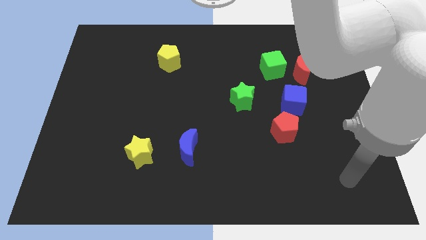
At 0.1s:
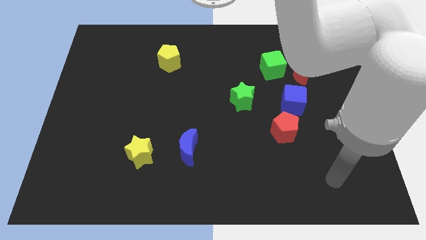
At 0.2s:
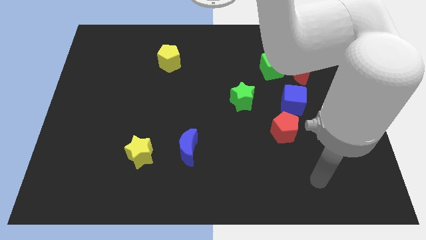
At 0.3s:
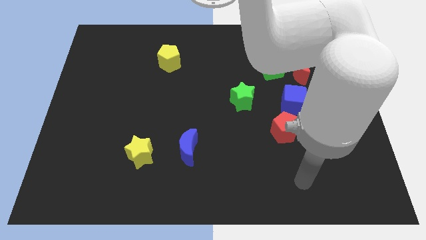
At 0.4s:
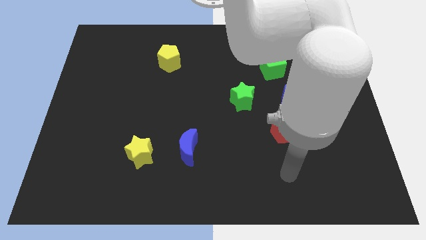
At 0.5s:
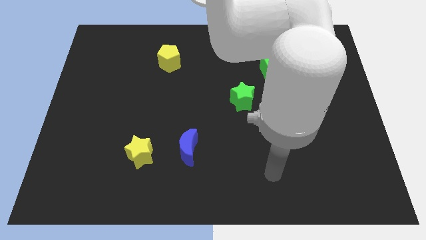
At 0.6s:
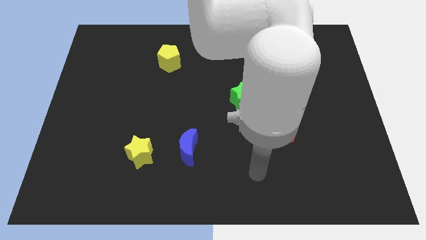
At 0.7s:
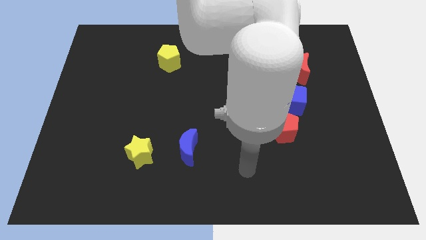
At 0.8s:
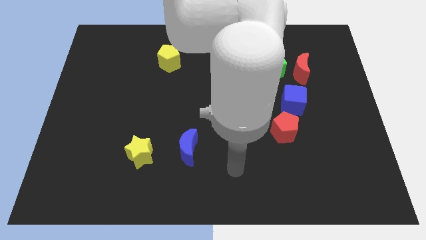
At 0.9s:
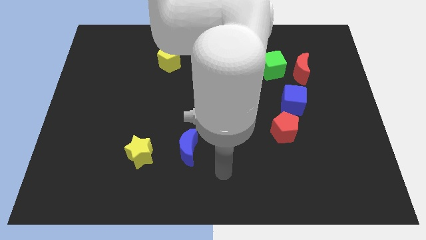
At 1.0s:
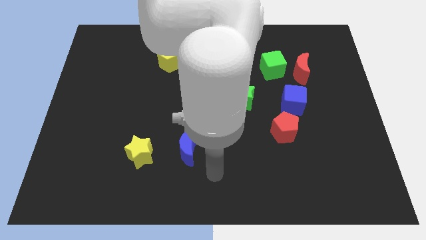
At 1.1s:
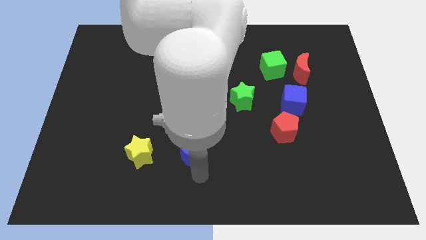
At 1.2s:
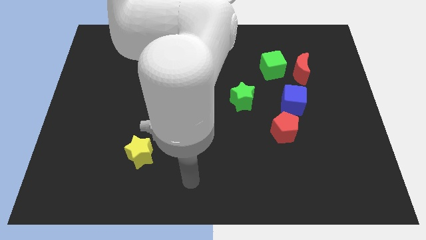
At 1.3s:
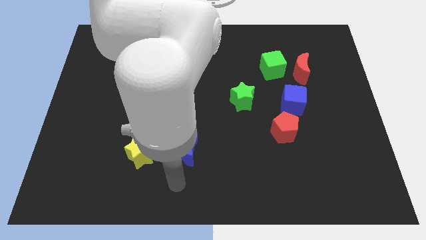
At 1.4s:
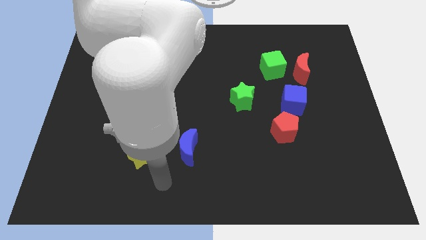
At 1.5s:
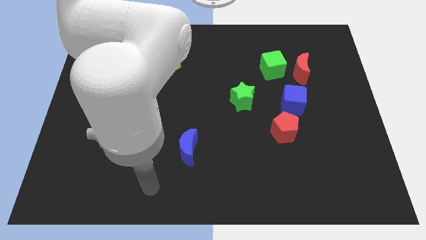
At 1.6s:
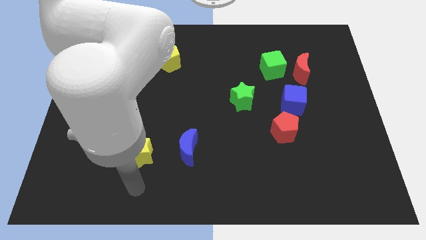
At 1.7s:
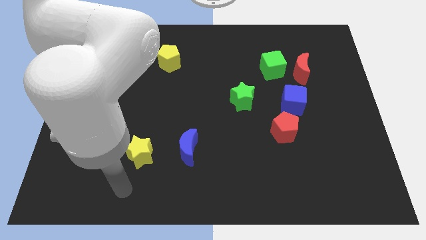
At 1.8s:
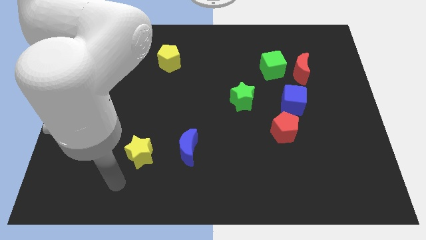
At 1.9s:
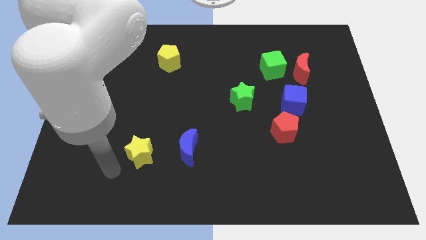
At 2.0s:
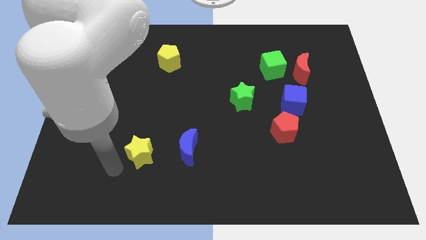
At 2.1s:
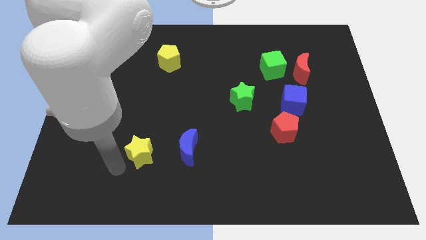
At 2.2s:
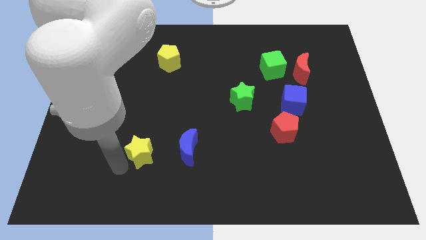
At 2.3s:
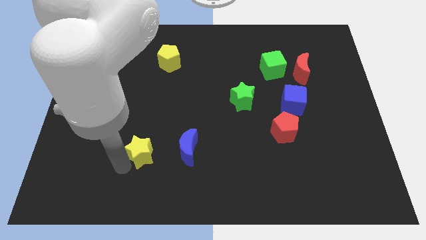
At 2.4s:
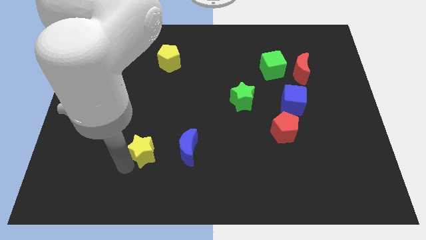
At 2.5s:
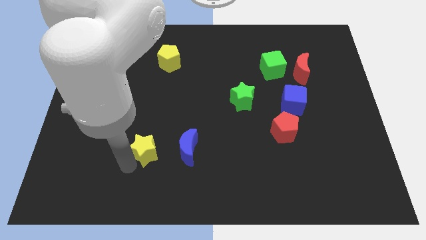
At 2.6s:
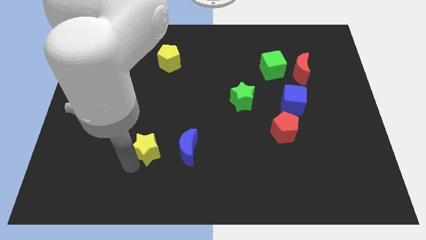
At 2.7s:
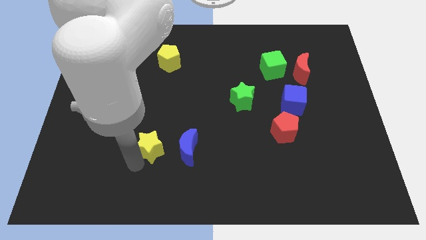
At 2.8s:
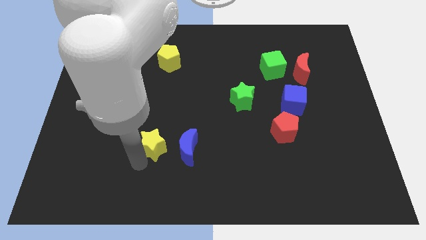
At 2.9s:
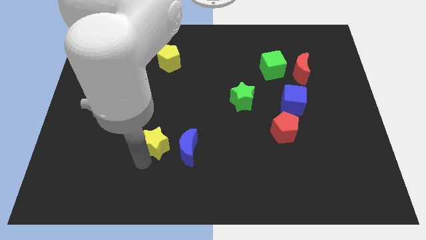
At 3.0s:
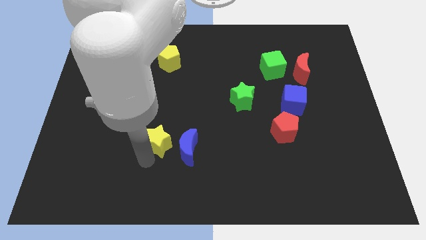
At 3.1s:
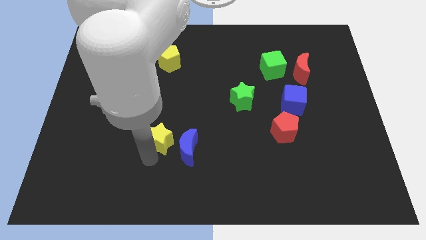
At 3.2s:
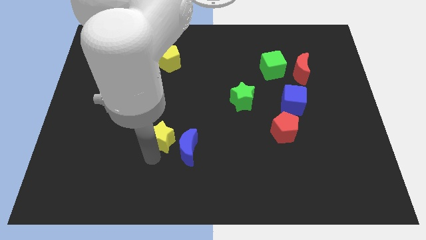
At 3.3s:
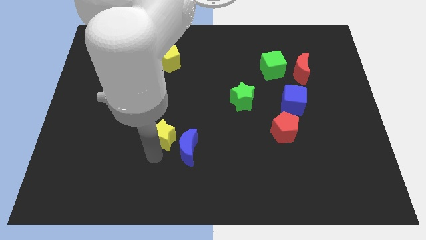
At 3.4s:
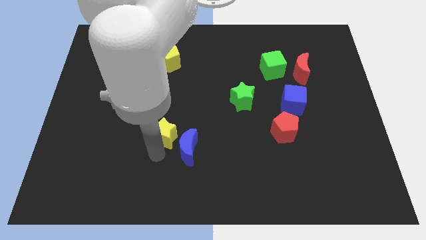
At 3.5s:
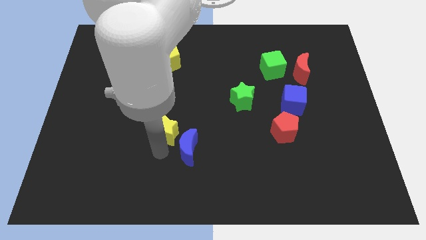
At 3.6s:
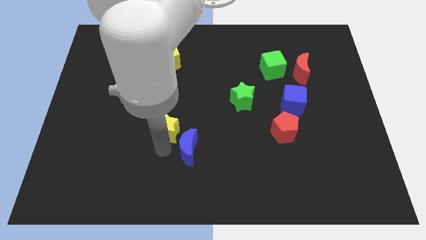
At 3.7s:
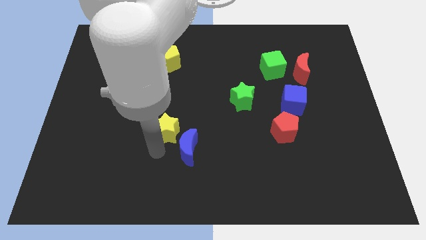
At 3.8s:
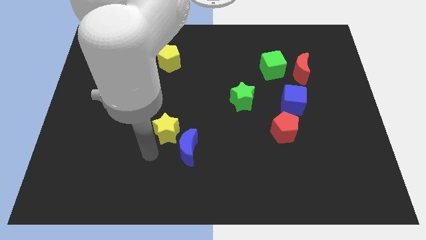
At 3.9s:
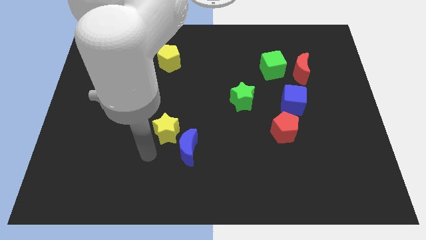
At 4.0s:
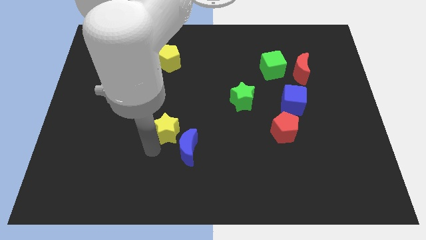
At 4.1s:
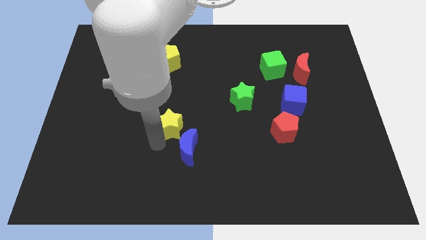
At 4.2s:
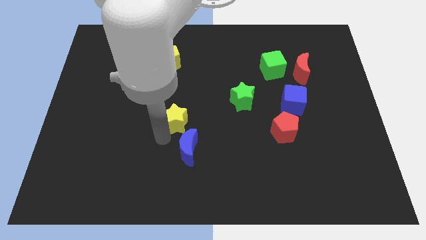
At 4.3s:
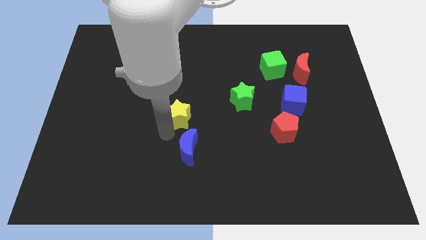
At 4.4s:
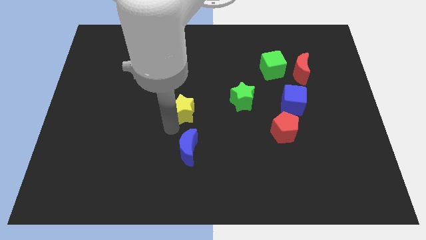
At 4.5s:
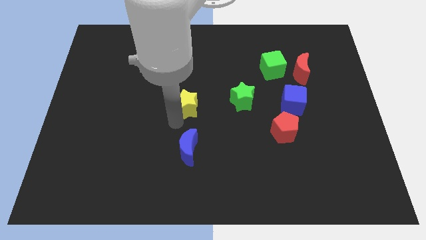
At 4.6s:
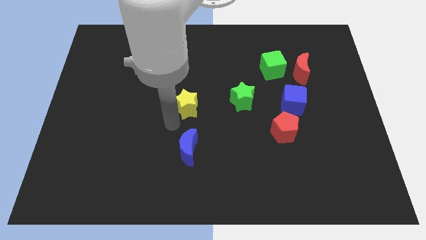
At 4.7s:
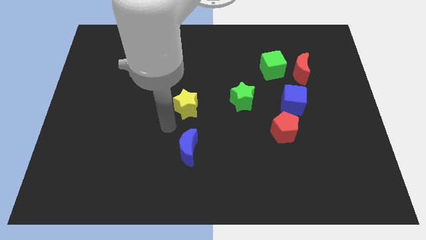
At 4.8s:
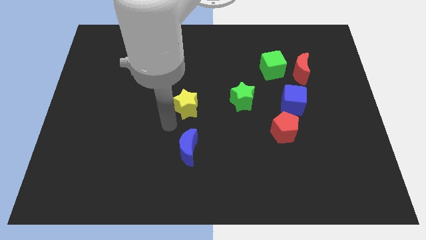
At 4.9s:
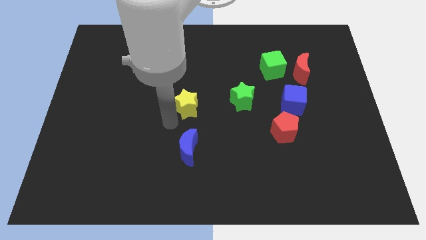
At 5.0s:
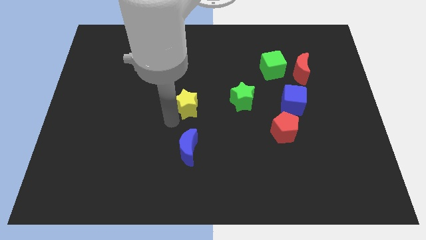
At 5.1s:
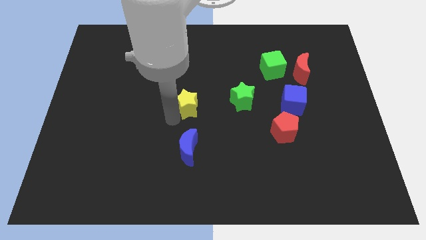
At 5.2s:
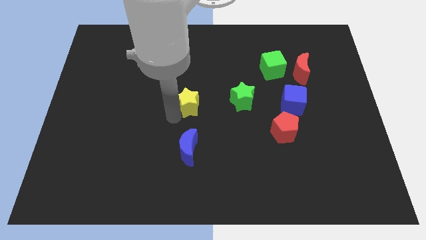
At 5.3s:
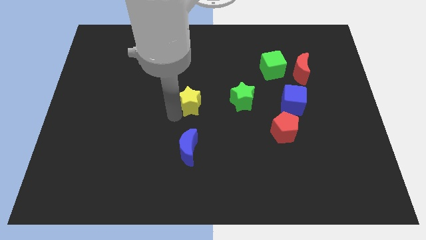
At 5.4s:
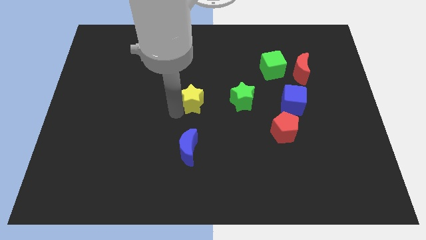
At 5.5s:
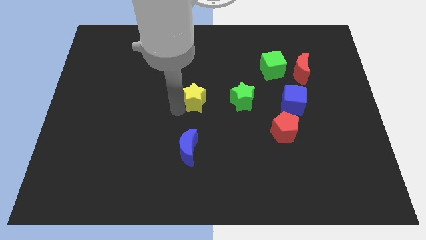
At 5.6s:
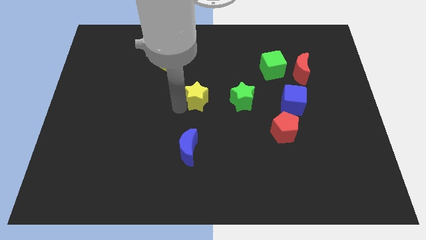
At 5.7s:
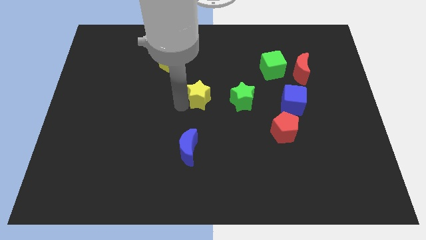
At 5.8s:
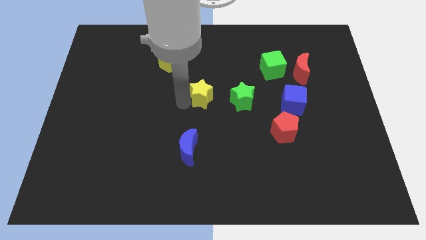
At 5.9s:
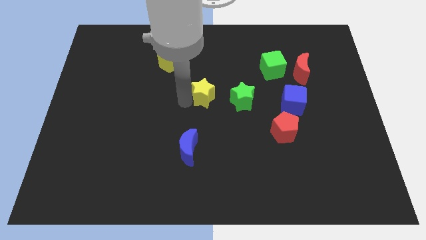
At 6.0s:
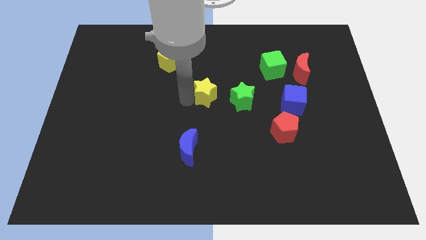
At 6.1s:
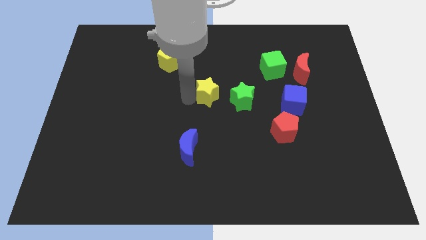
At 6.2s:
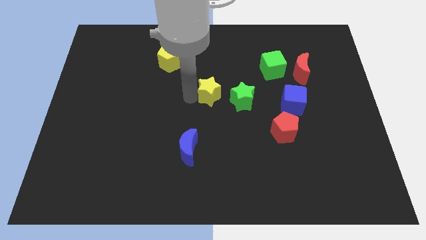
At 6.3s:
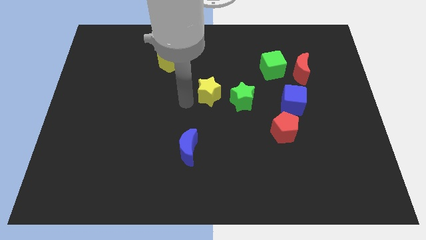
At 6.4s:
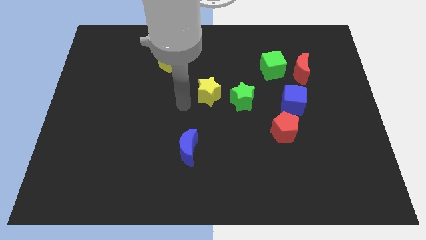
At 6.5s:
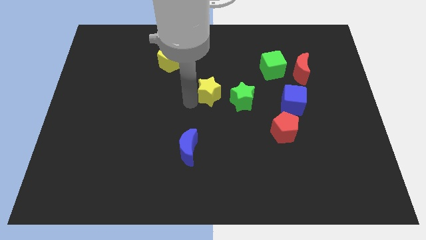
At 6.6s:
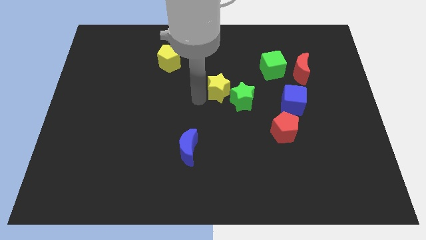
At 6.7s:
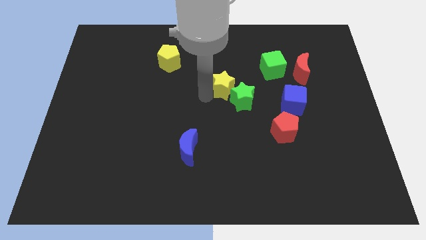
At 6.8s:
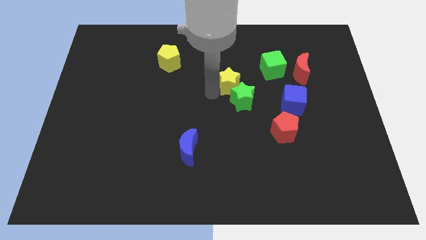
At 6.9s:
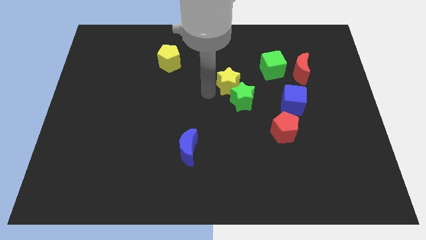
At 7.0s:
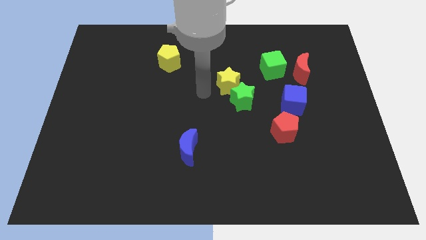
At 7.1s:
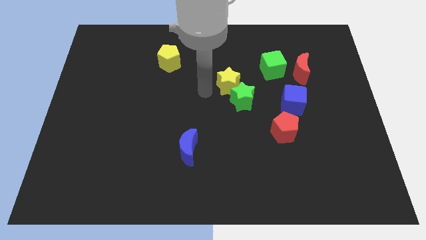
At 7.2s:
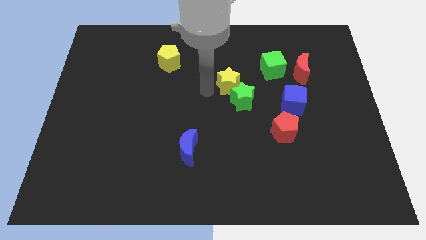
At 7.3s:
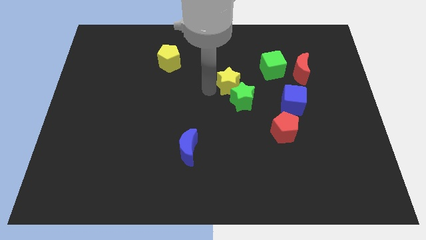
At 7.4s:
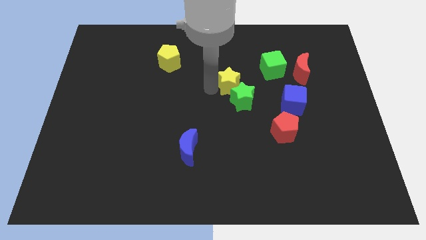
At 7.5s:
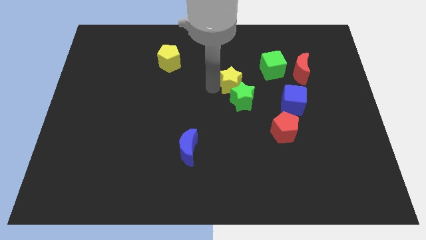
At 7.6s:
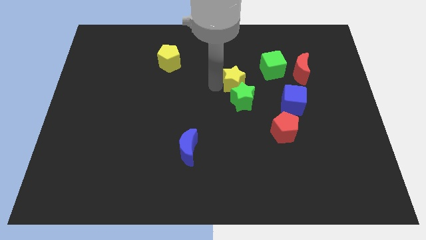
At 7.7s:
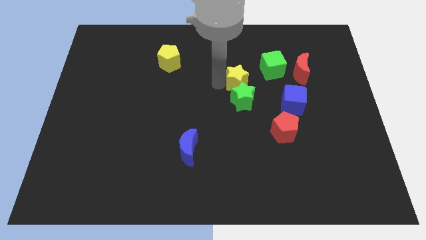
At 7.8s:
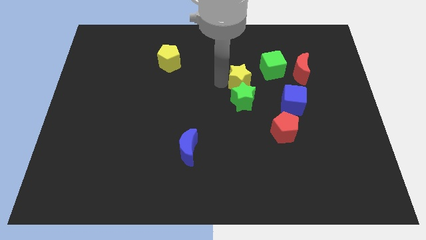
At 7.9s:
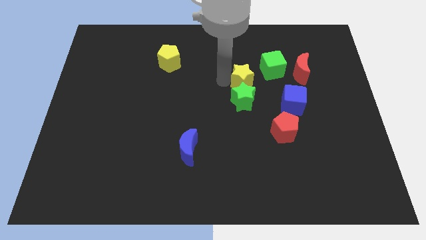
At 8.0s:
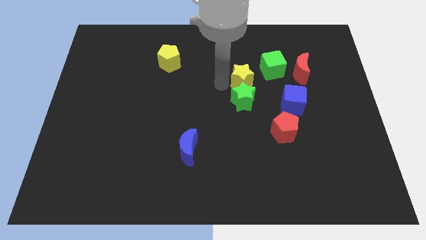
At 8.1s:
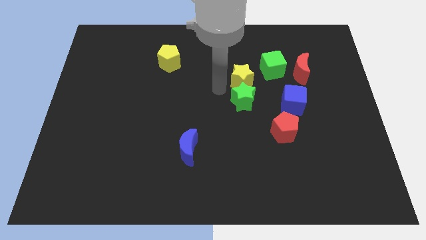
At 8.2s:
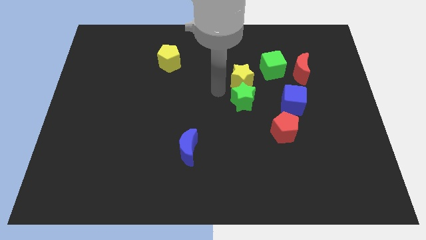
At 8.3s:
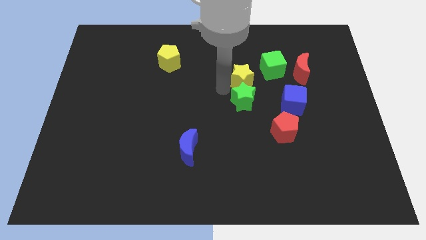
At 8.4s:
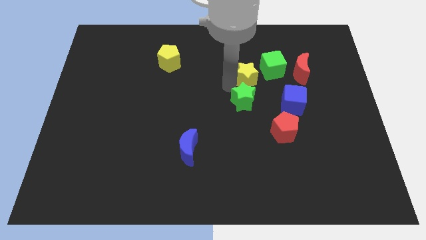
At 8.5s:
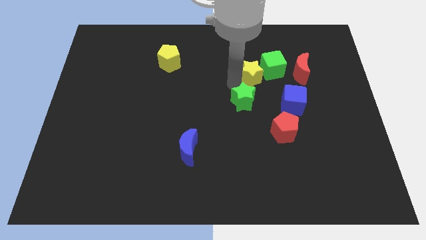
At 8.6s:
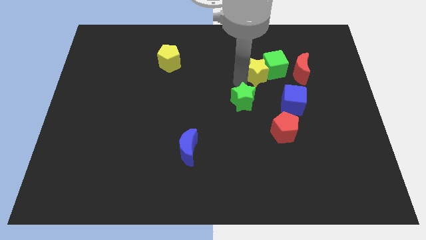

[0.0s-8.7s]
slide the yellow star next to the green cube
